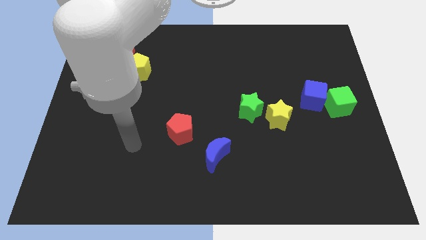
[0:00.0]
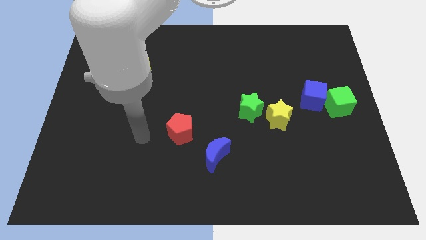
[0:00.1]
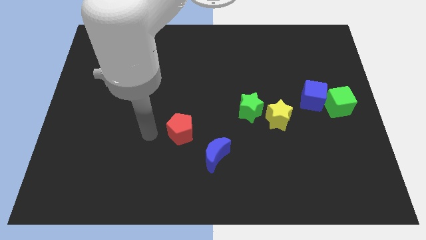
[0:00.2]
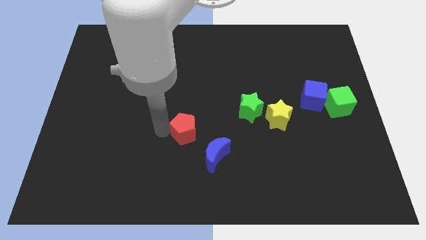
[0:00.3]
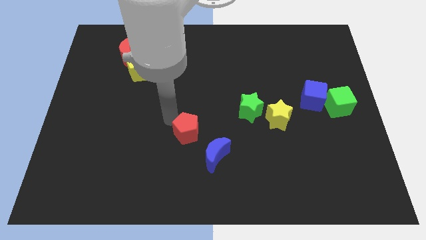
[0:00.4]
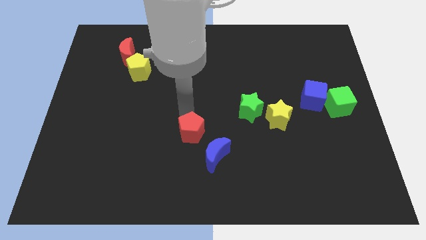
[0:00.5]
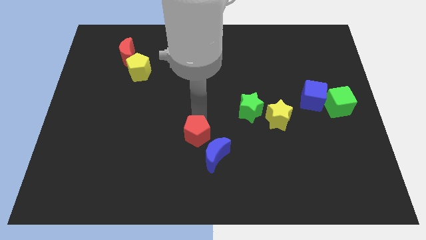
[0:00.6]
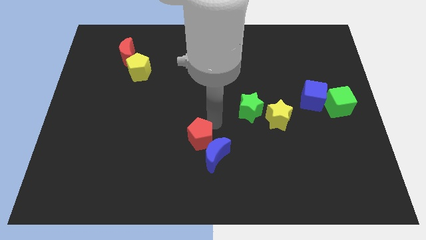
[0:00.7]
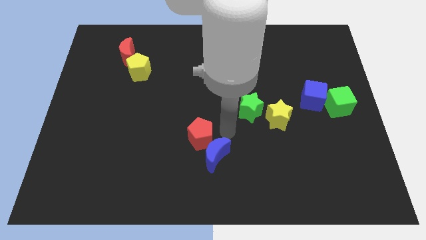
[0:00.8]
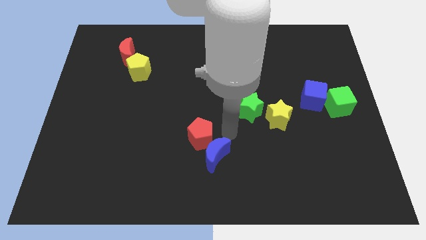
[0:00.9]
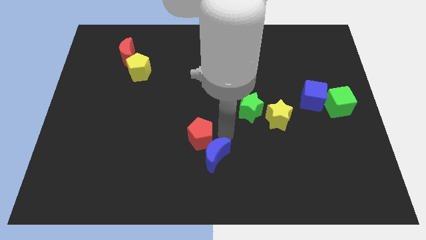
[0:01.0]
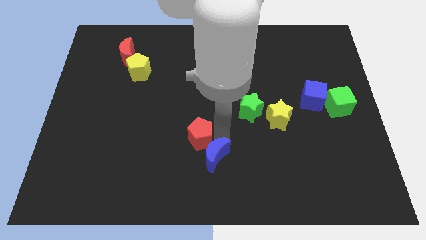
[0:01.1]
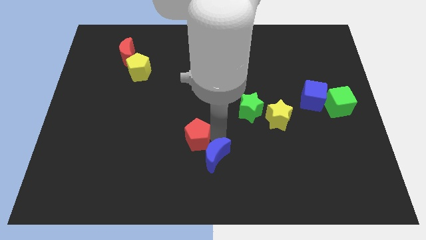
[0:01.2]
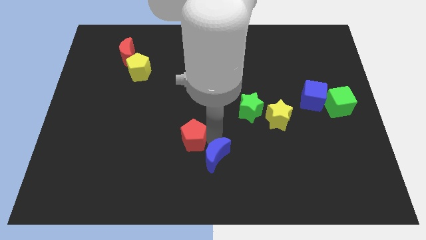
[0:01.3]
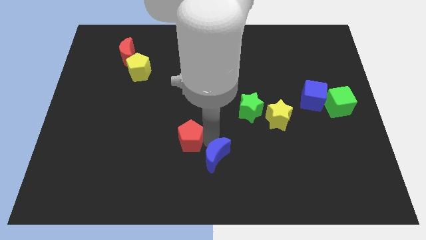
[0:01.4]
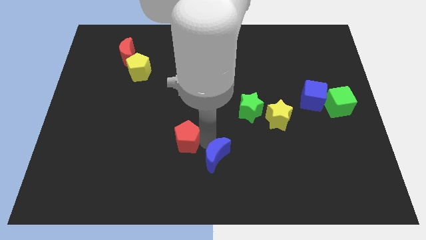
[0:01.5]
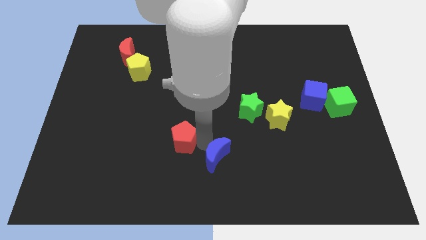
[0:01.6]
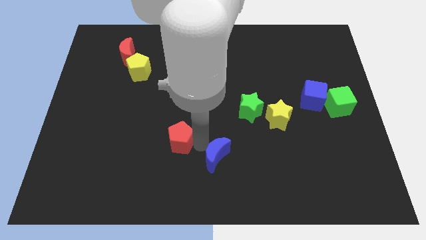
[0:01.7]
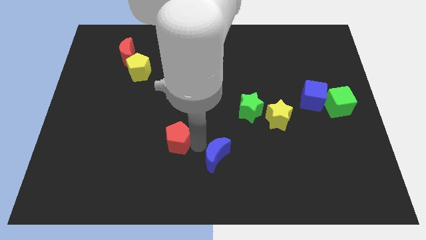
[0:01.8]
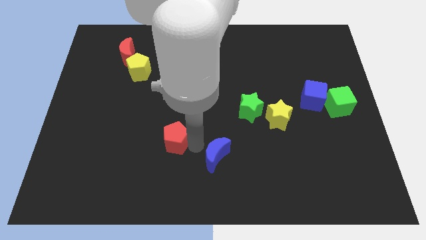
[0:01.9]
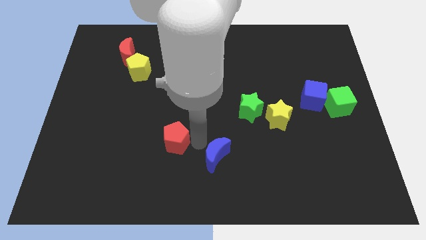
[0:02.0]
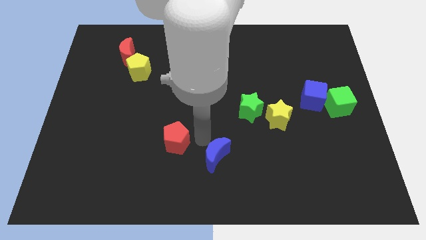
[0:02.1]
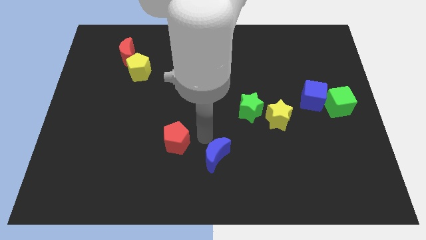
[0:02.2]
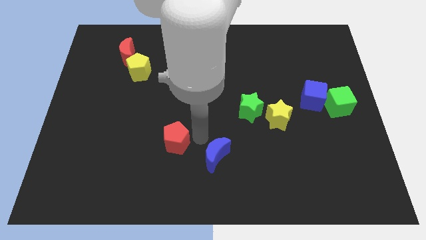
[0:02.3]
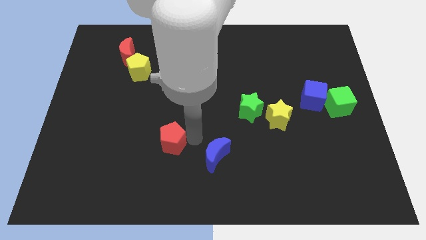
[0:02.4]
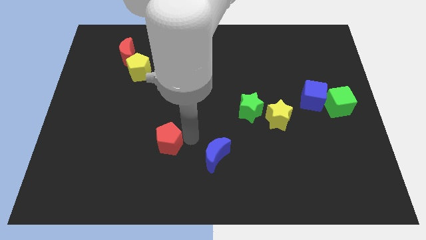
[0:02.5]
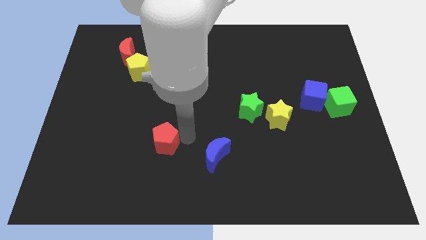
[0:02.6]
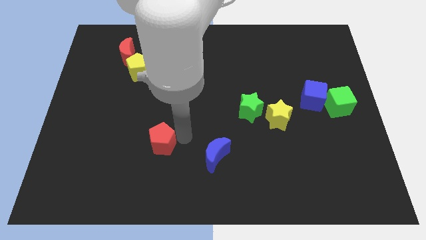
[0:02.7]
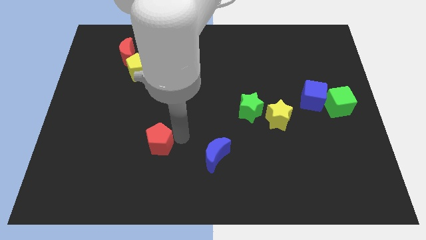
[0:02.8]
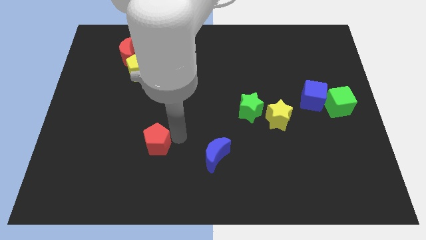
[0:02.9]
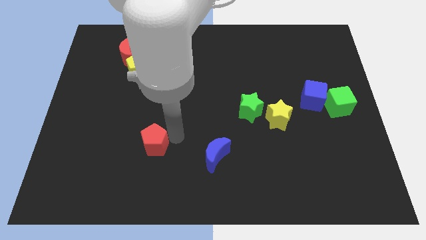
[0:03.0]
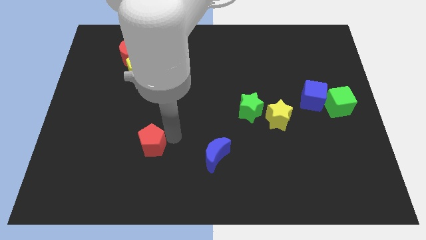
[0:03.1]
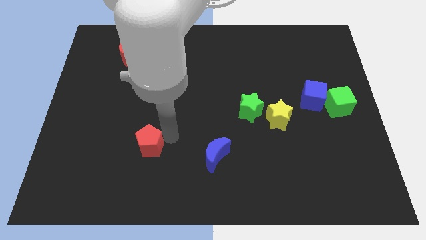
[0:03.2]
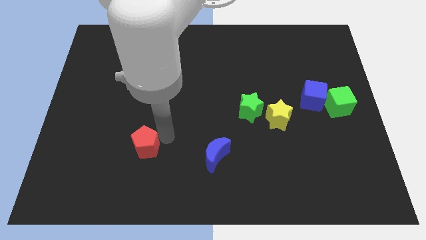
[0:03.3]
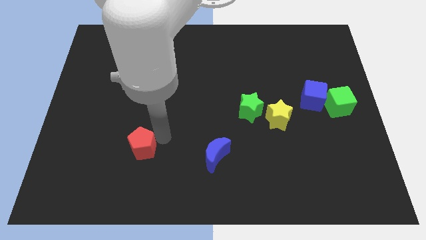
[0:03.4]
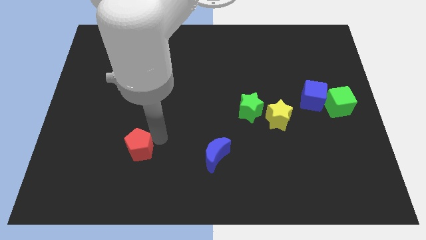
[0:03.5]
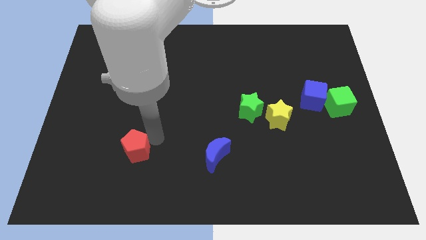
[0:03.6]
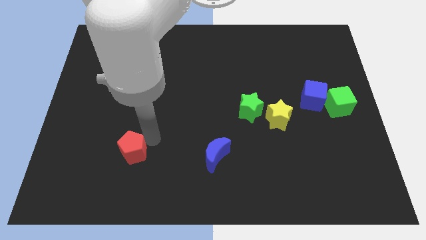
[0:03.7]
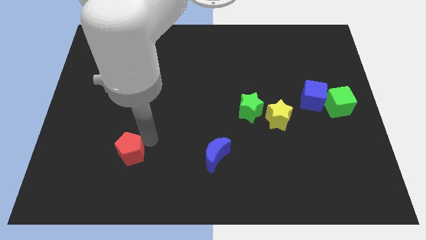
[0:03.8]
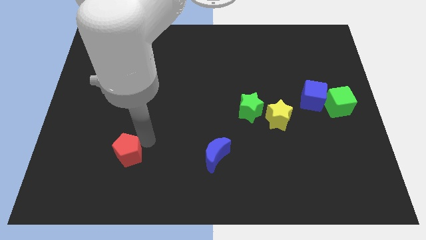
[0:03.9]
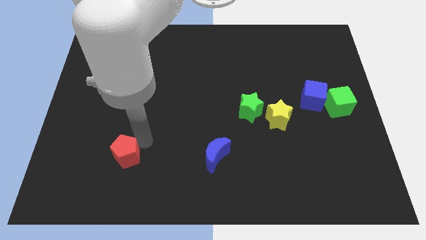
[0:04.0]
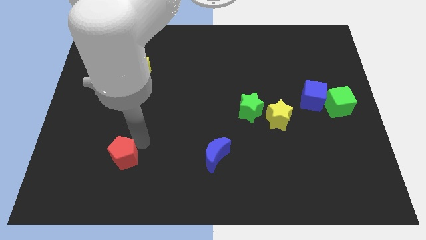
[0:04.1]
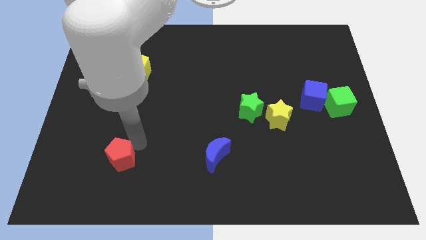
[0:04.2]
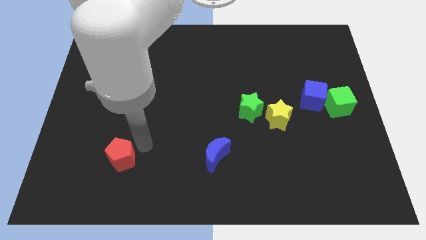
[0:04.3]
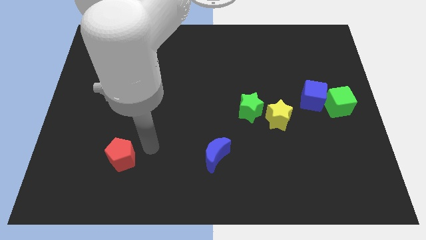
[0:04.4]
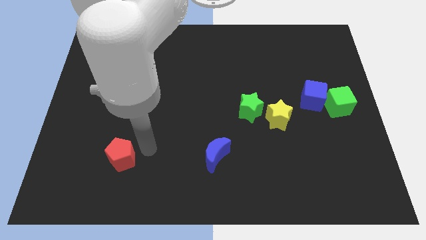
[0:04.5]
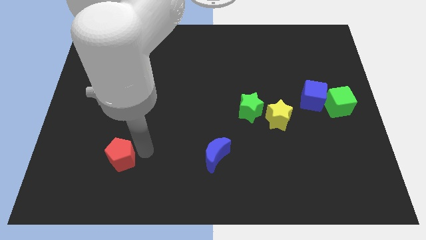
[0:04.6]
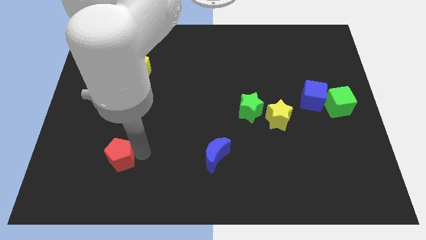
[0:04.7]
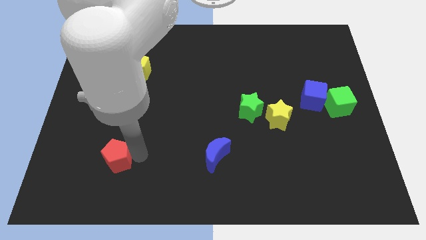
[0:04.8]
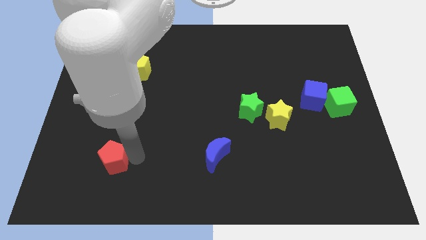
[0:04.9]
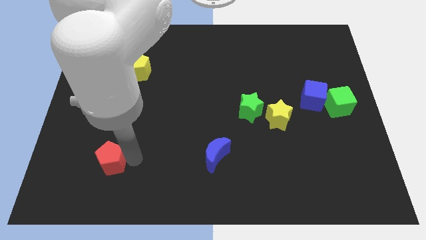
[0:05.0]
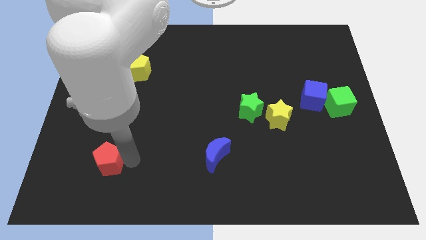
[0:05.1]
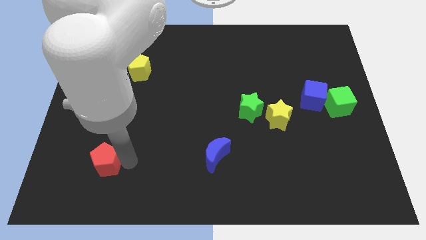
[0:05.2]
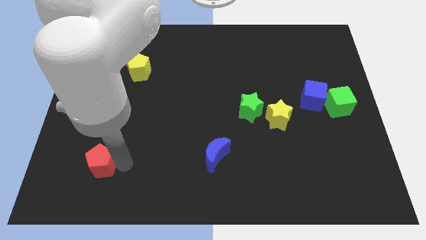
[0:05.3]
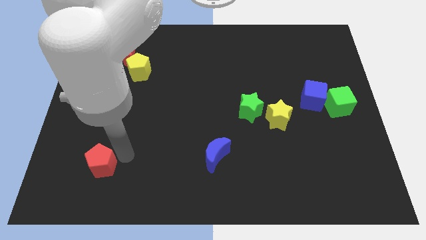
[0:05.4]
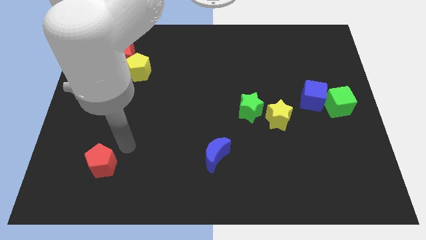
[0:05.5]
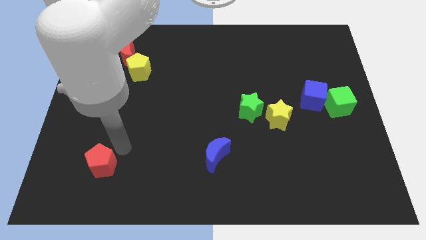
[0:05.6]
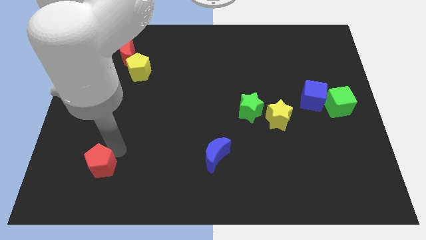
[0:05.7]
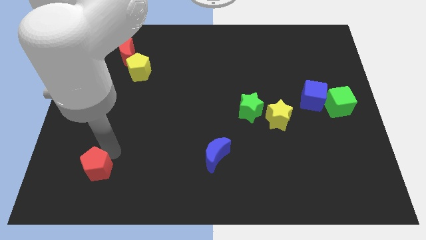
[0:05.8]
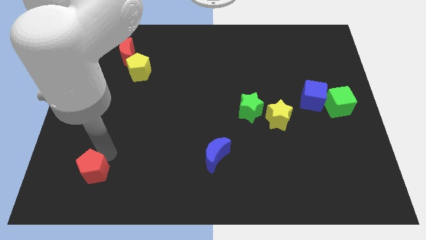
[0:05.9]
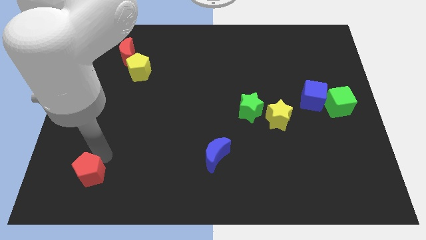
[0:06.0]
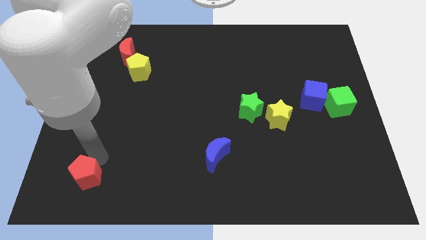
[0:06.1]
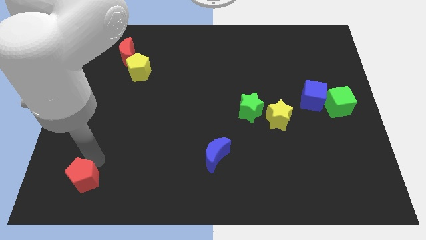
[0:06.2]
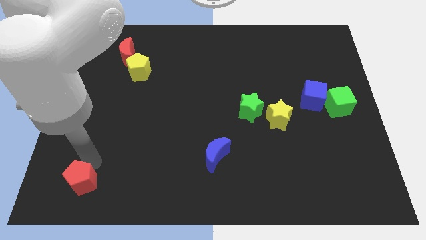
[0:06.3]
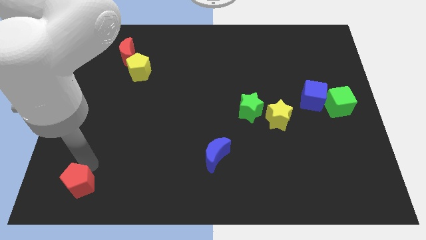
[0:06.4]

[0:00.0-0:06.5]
put the red pentagon to the bottom left
